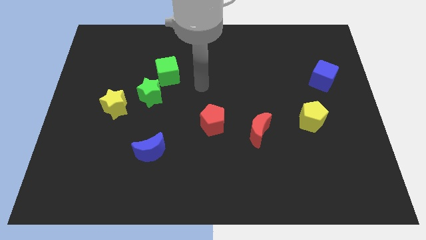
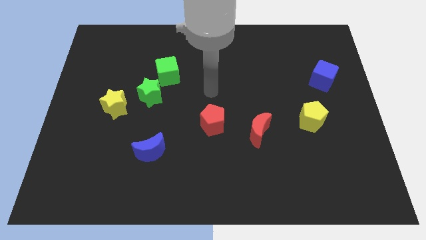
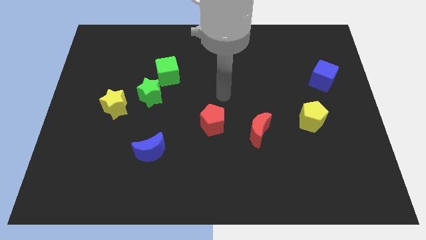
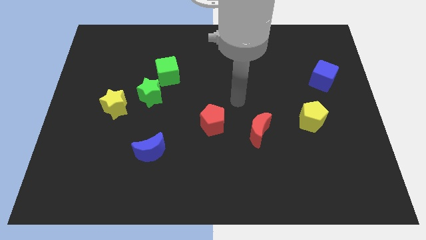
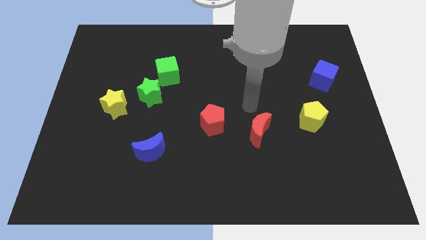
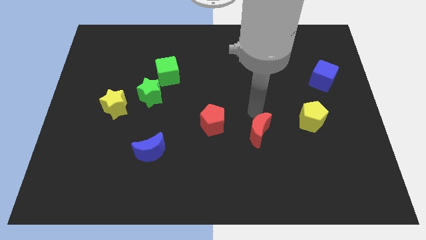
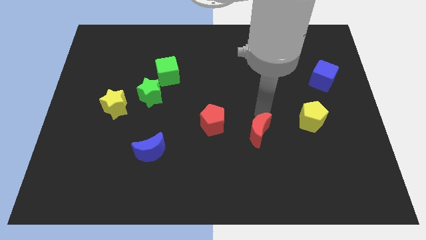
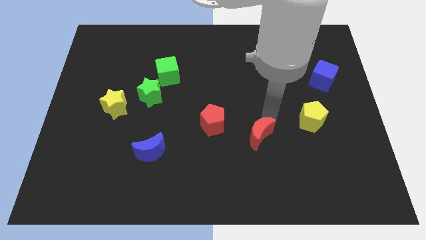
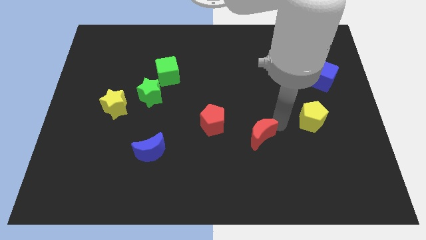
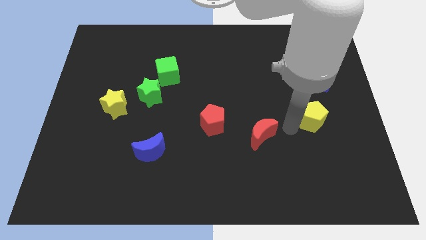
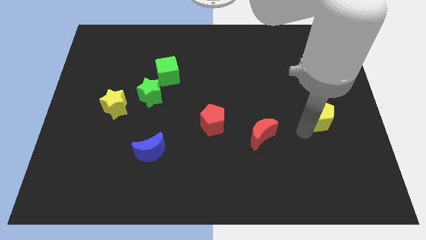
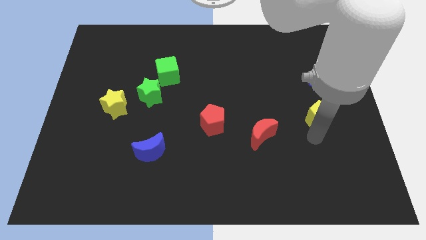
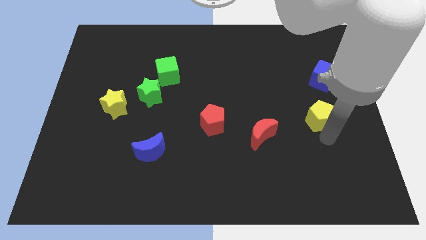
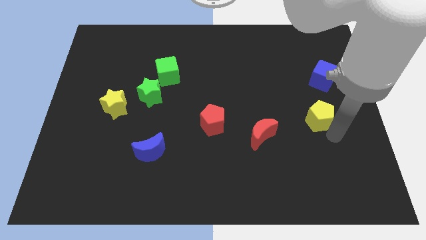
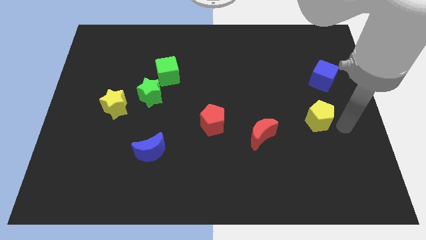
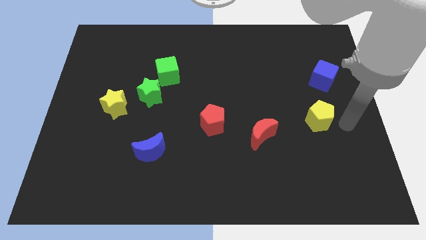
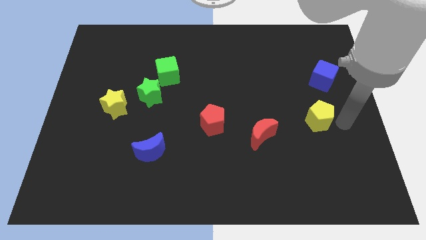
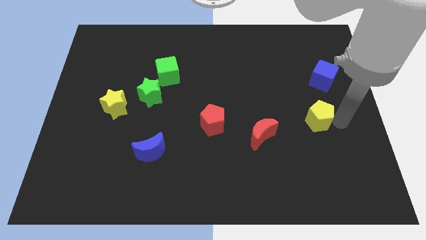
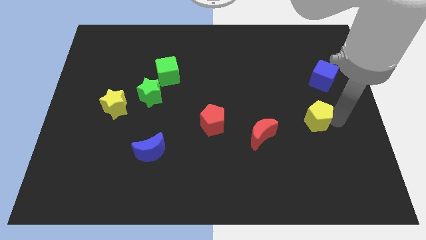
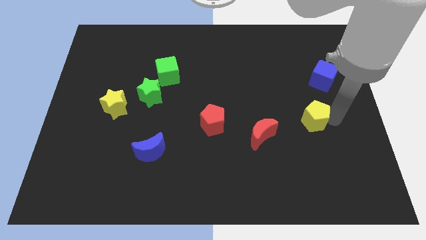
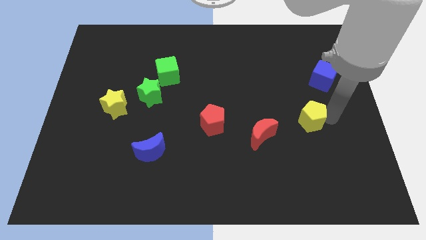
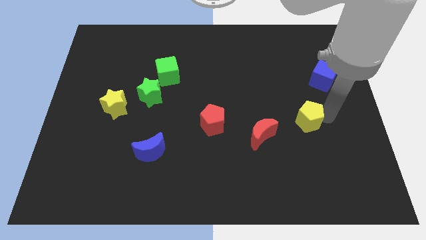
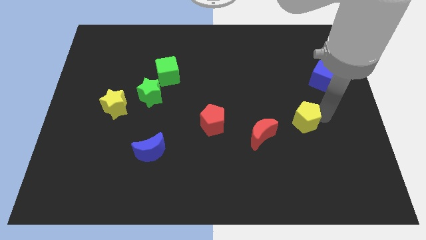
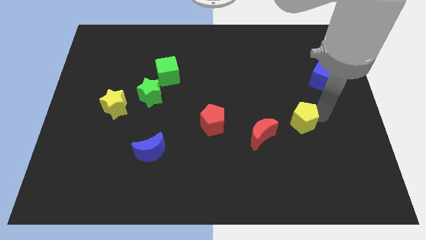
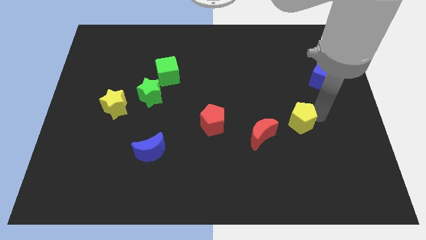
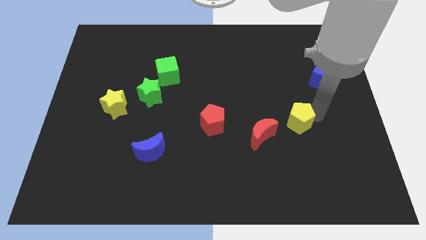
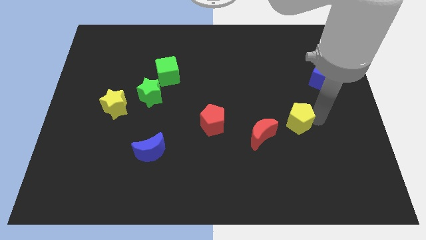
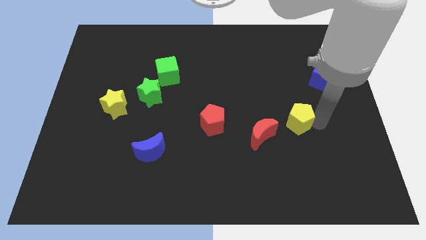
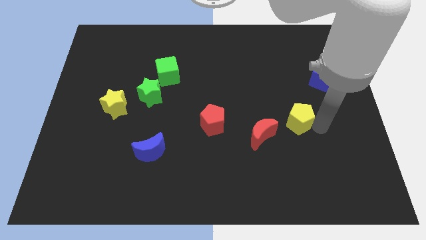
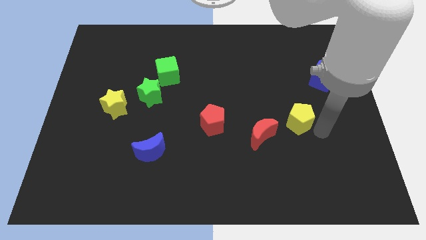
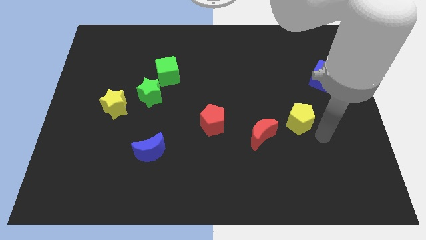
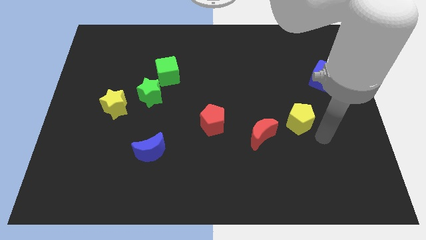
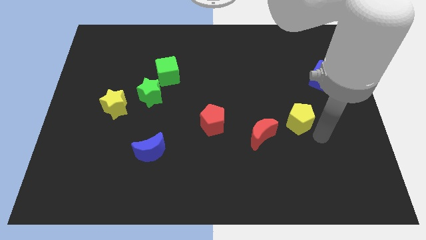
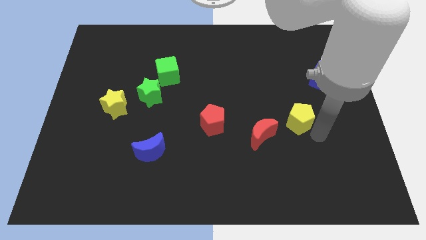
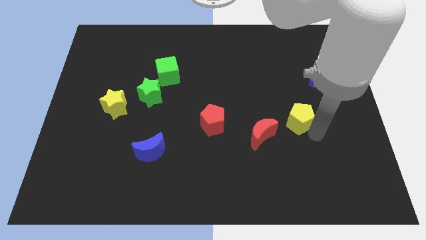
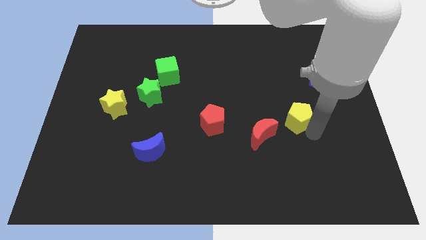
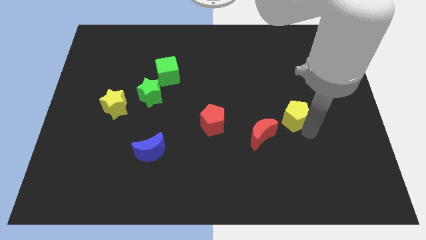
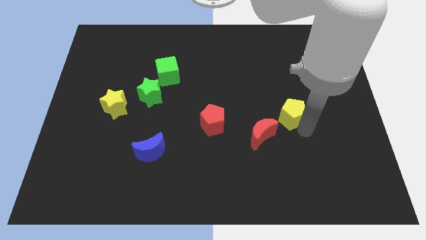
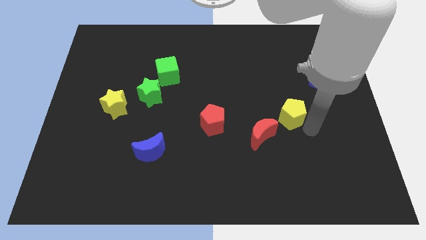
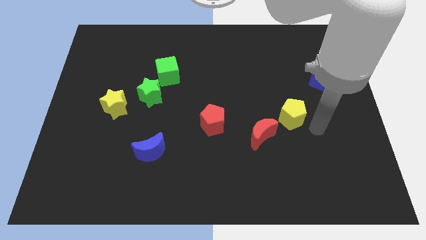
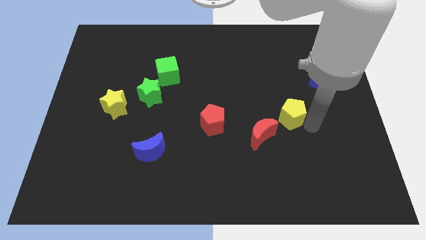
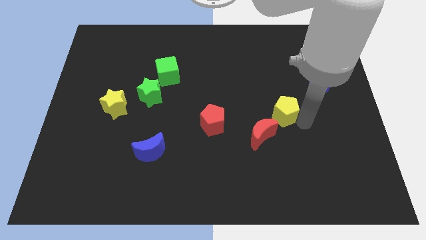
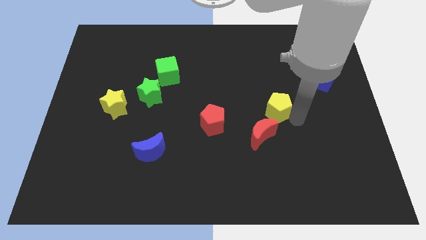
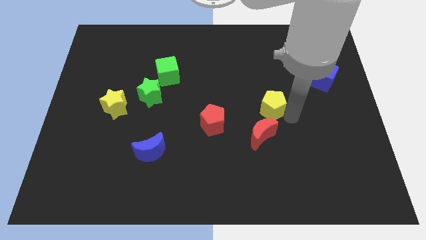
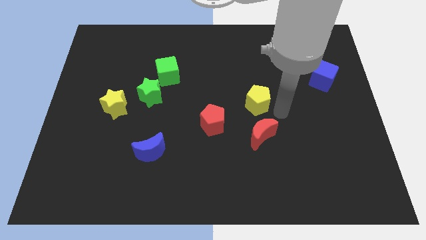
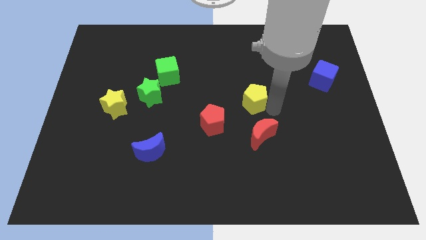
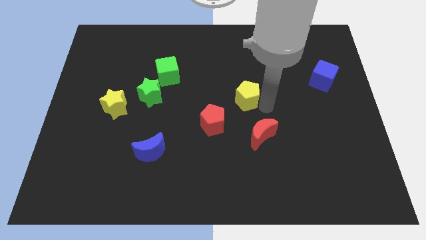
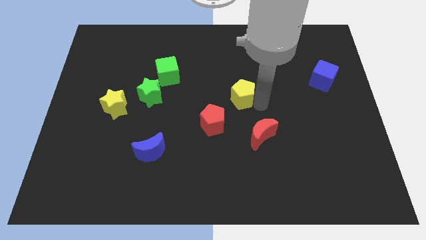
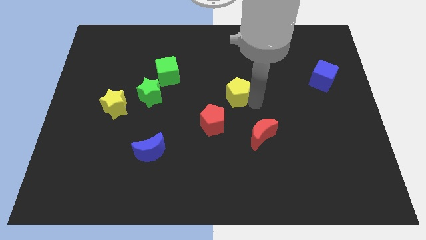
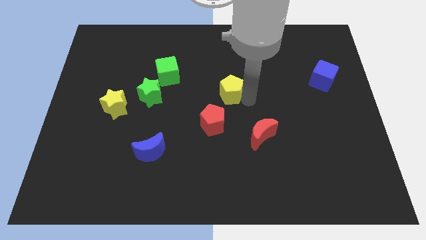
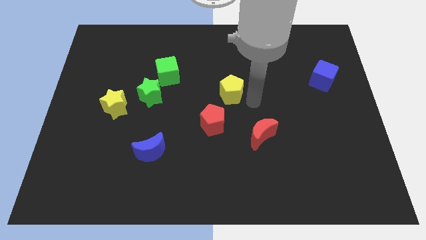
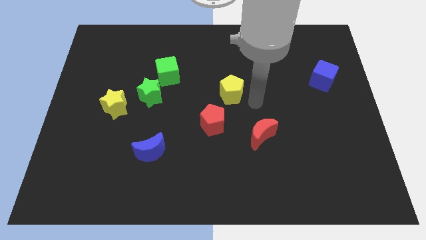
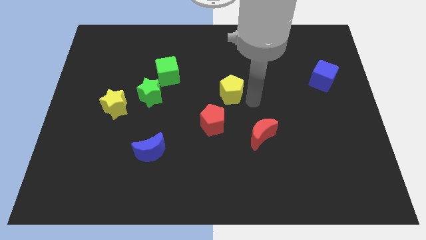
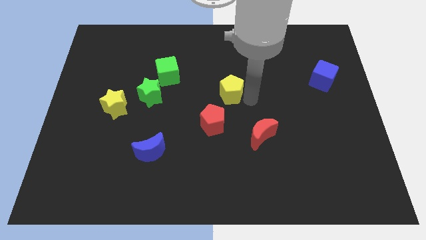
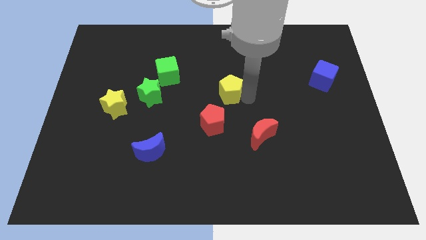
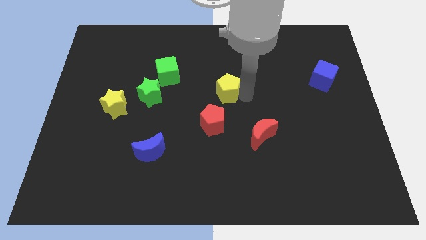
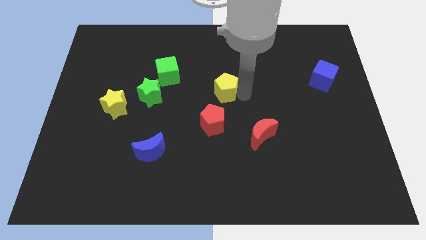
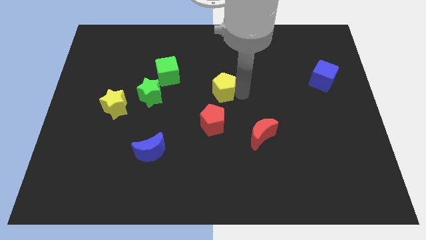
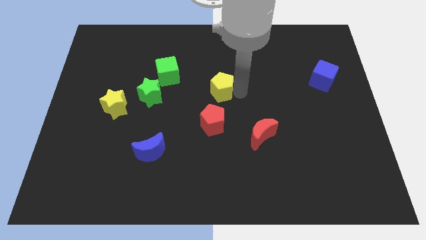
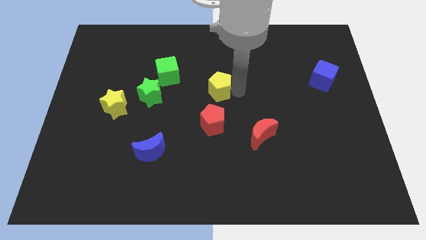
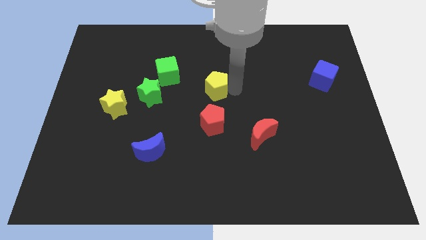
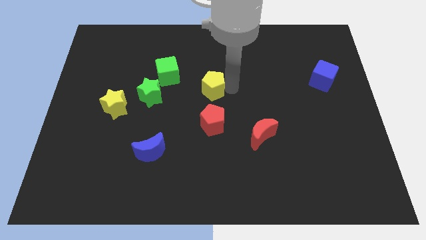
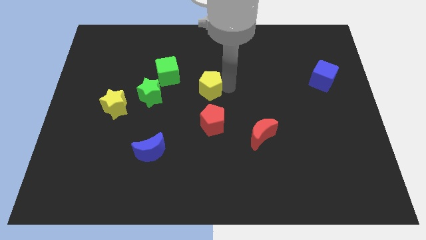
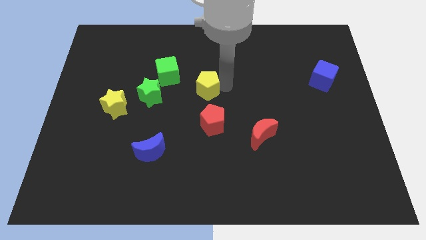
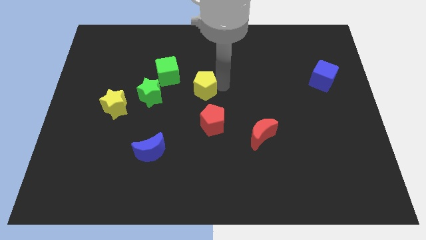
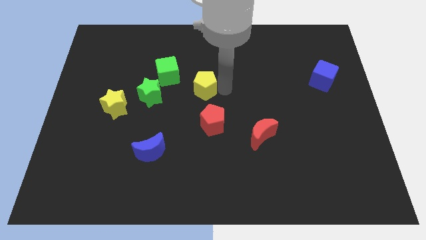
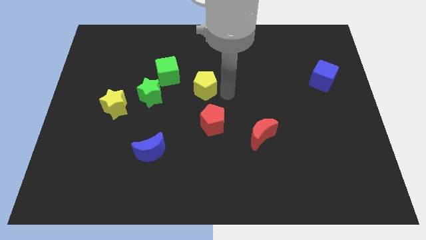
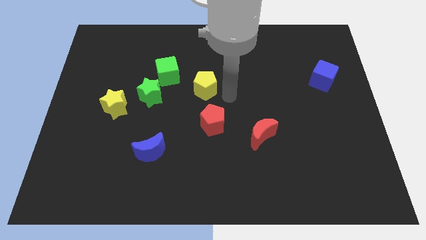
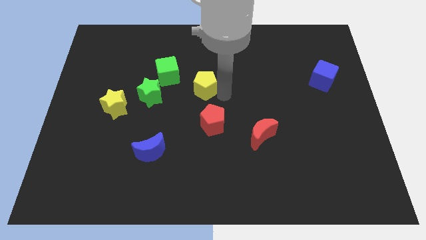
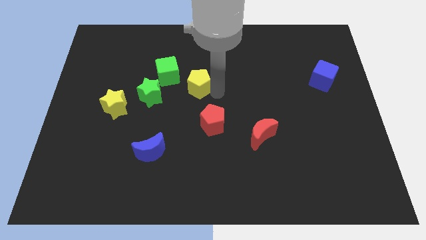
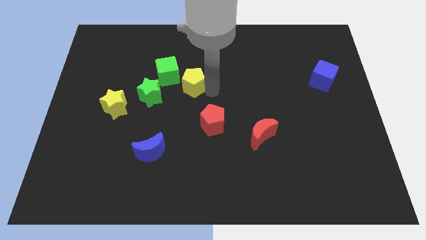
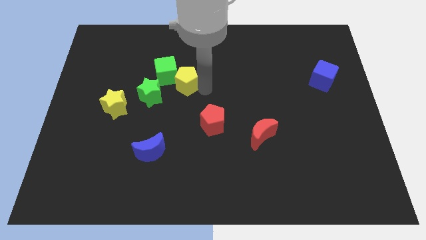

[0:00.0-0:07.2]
put the yellow pentagon towards the green cube

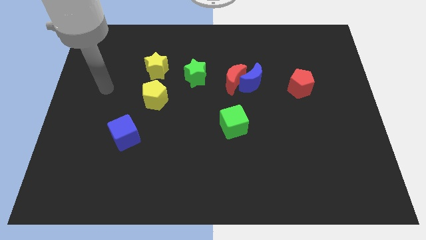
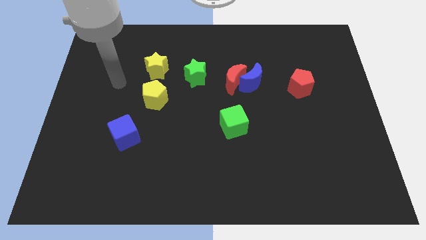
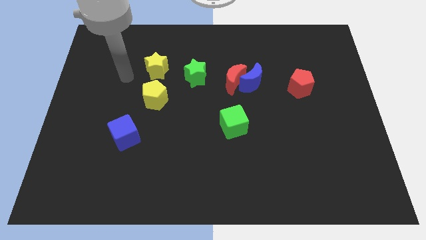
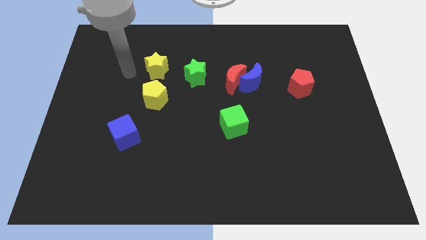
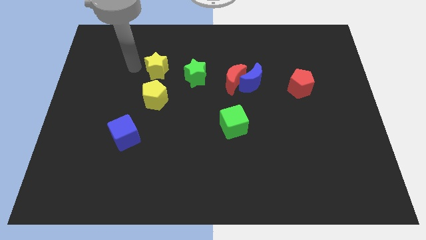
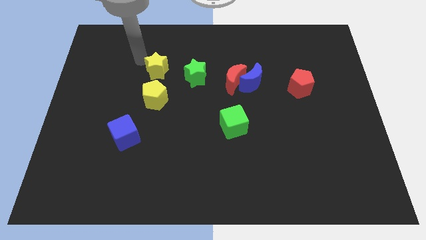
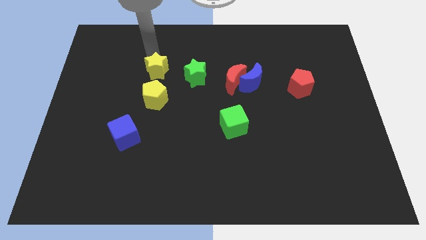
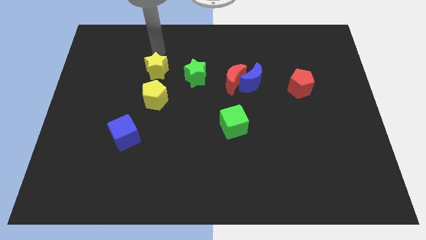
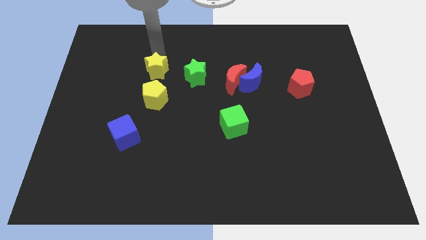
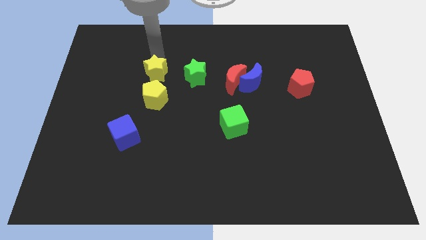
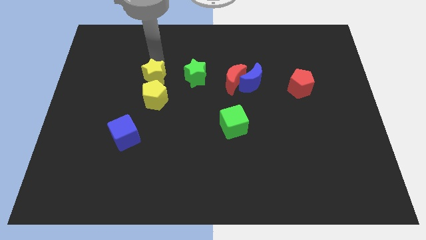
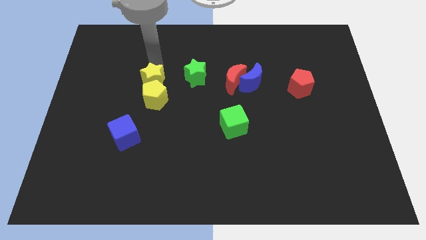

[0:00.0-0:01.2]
move the yellow star close to the yellow pentagon
